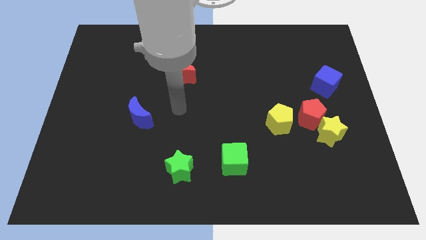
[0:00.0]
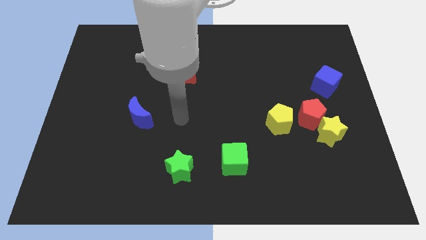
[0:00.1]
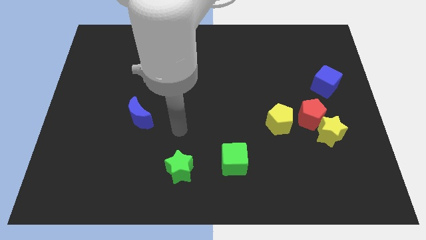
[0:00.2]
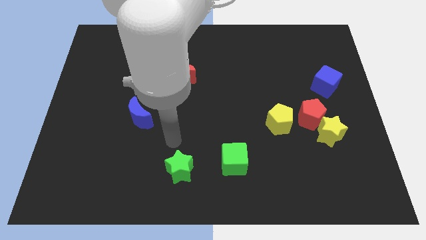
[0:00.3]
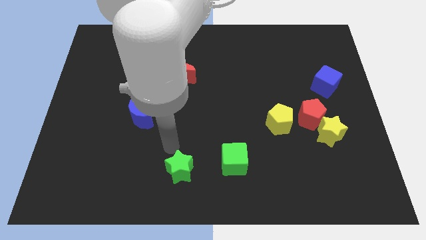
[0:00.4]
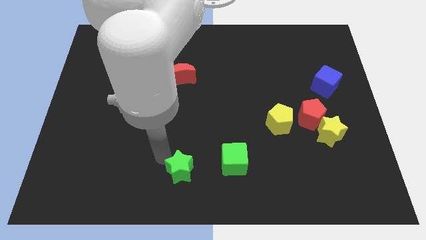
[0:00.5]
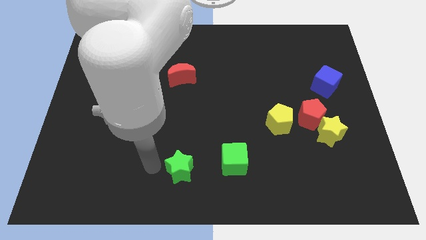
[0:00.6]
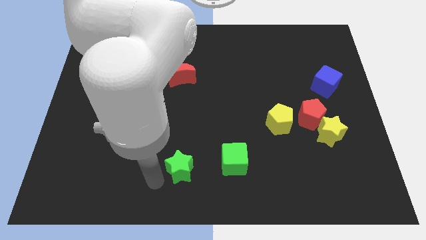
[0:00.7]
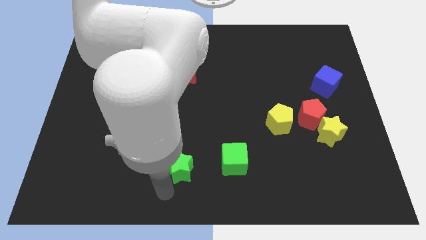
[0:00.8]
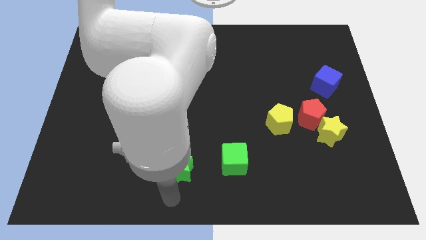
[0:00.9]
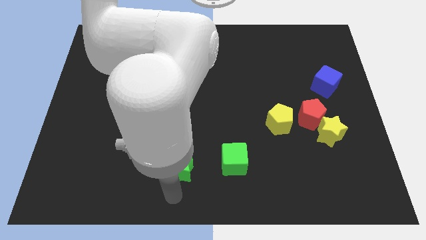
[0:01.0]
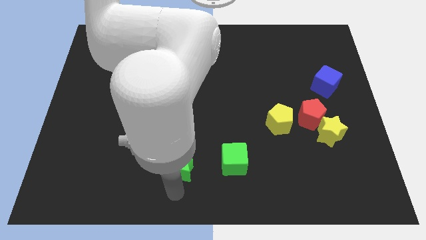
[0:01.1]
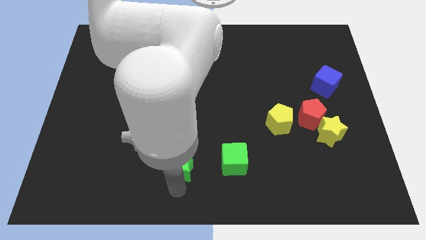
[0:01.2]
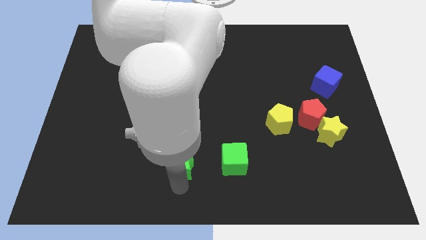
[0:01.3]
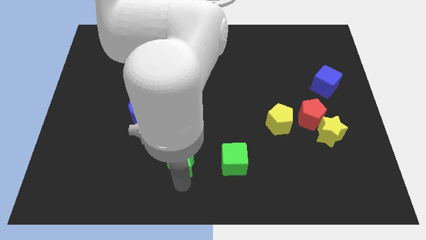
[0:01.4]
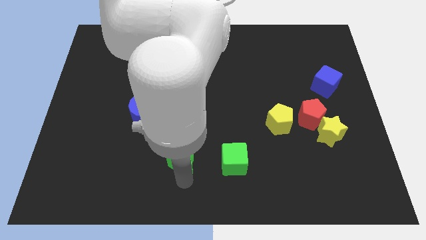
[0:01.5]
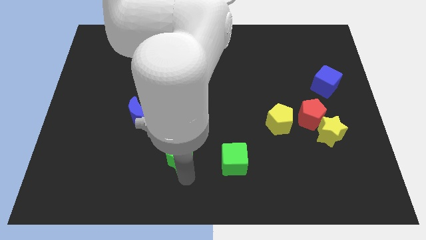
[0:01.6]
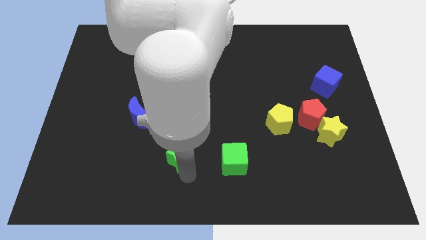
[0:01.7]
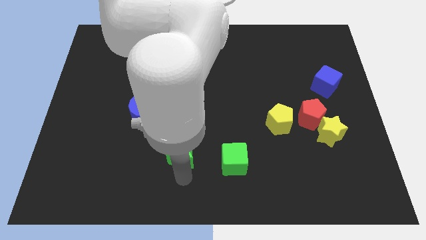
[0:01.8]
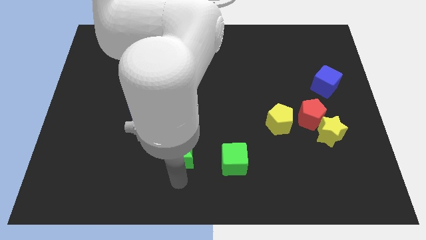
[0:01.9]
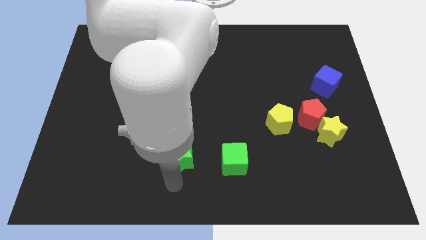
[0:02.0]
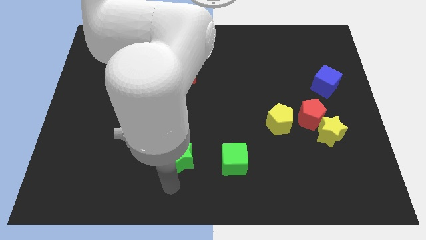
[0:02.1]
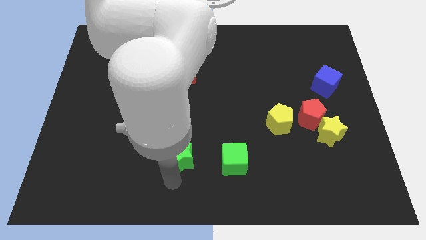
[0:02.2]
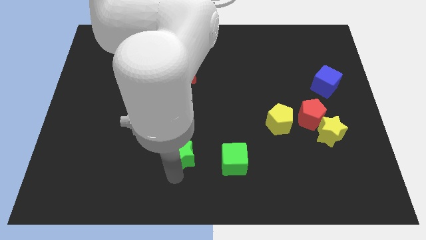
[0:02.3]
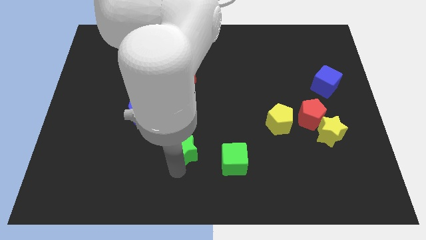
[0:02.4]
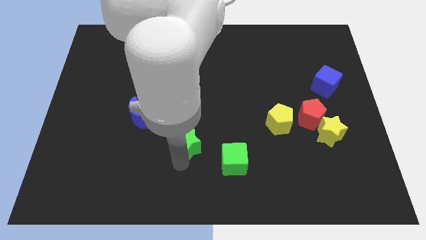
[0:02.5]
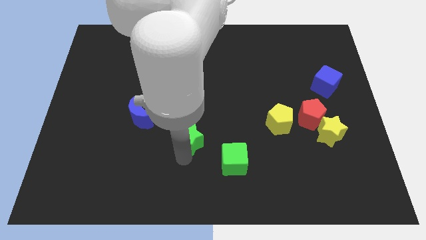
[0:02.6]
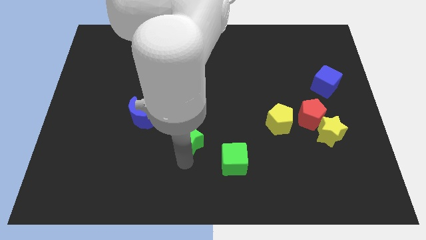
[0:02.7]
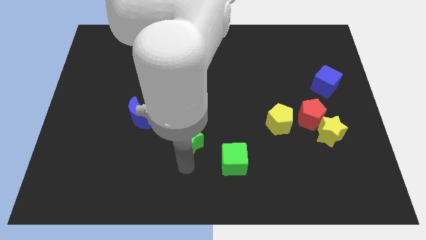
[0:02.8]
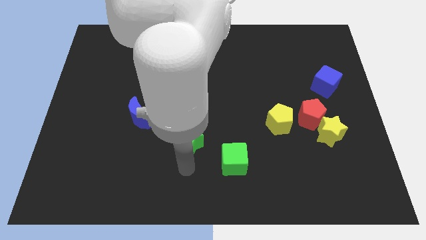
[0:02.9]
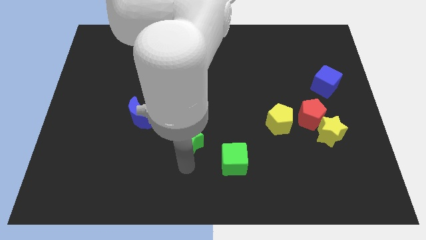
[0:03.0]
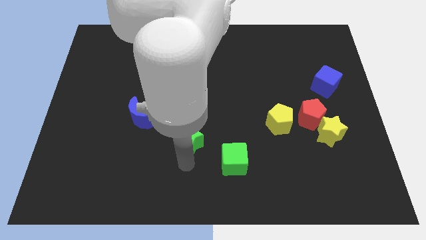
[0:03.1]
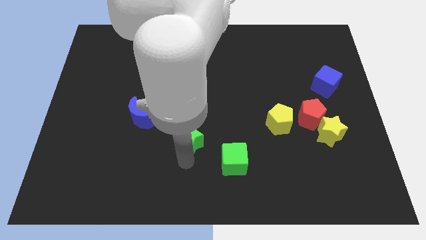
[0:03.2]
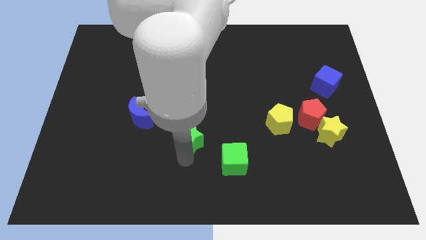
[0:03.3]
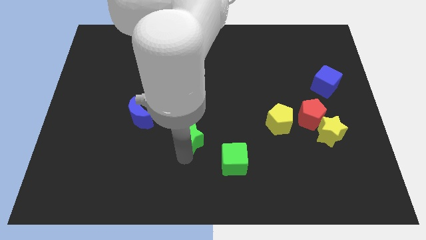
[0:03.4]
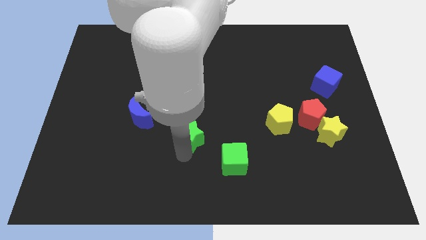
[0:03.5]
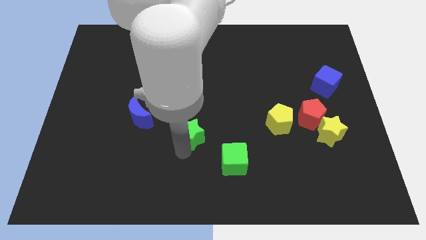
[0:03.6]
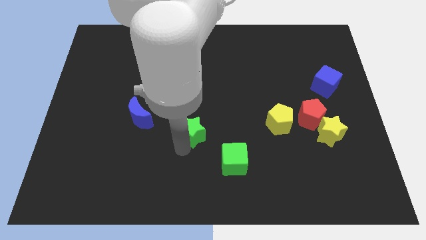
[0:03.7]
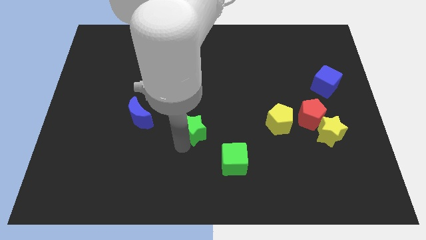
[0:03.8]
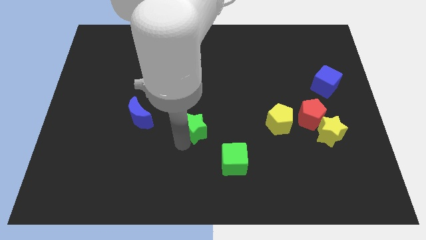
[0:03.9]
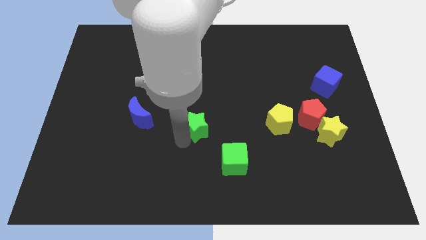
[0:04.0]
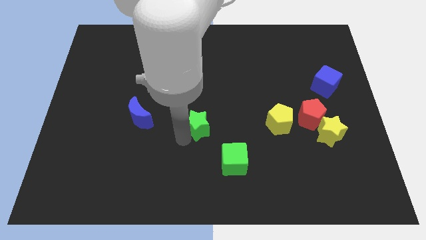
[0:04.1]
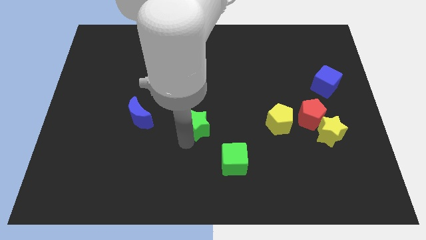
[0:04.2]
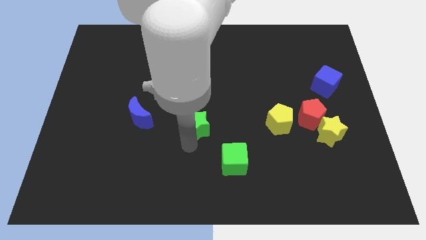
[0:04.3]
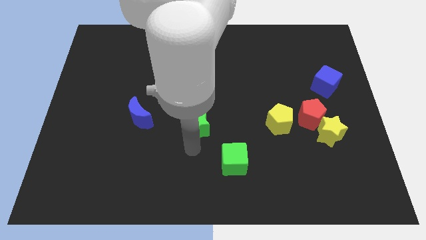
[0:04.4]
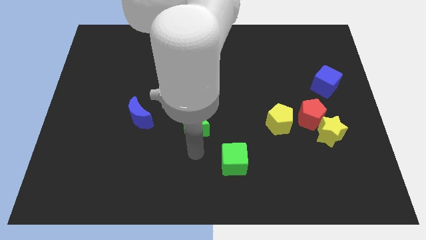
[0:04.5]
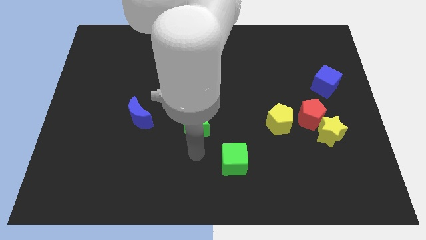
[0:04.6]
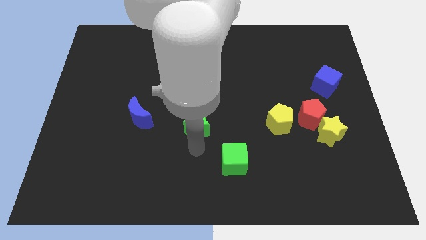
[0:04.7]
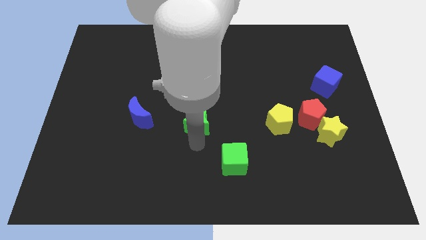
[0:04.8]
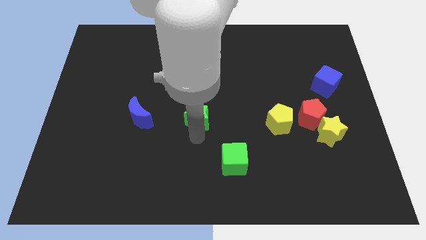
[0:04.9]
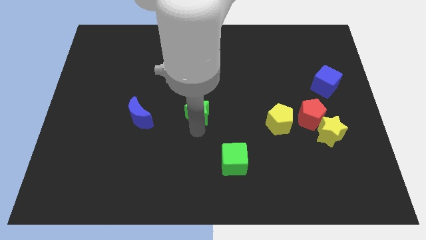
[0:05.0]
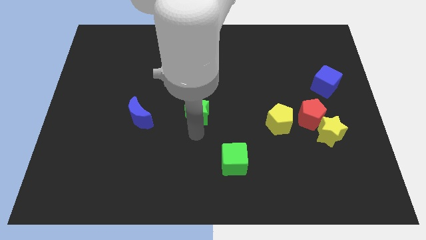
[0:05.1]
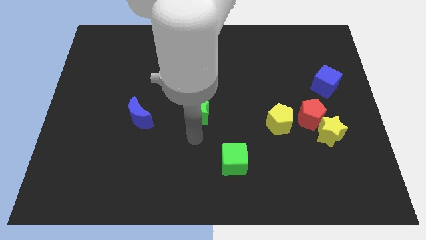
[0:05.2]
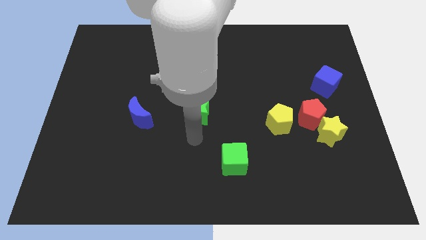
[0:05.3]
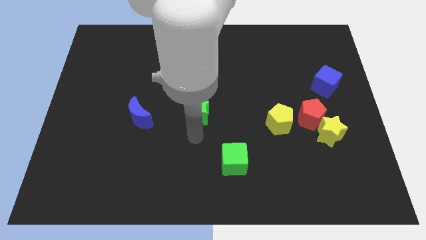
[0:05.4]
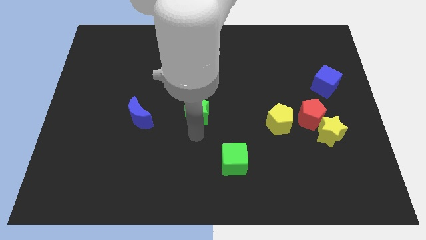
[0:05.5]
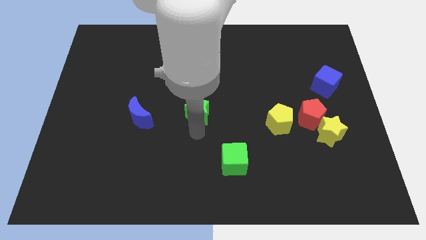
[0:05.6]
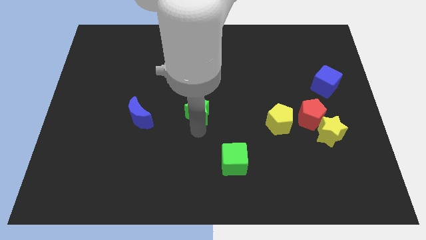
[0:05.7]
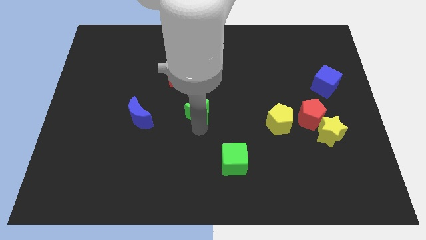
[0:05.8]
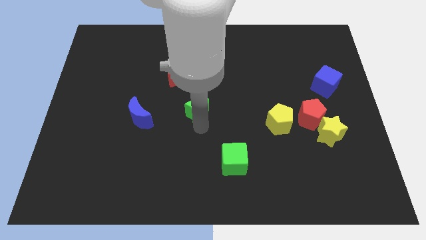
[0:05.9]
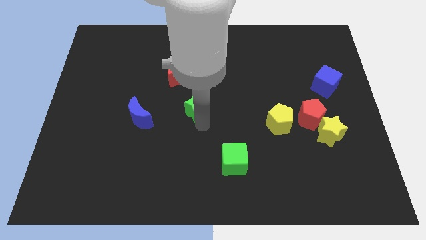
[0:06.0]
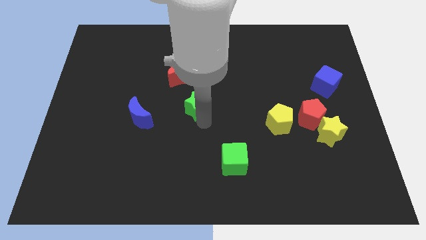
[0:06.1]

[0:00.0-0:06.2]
slide the green star diagonally down and to the right of the red moon

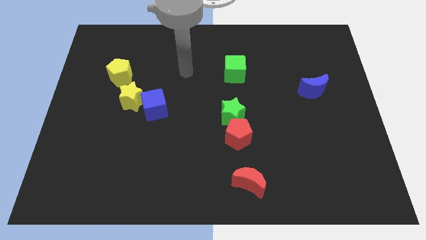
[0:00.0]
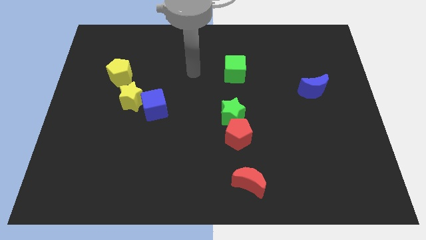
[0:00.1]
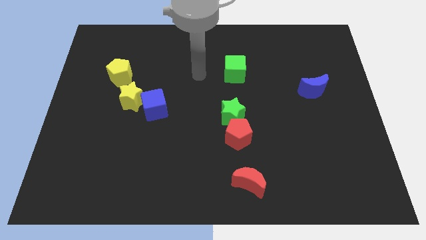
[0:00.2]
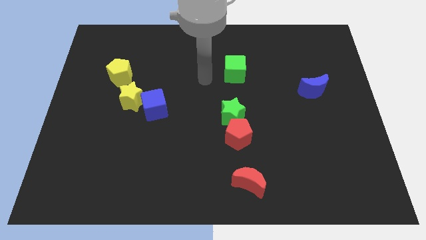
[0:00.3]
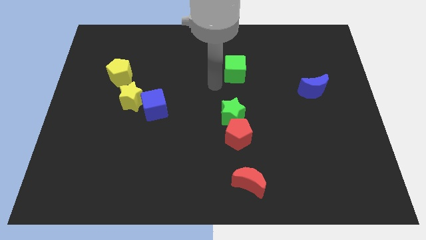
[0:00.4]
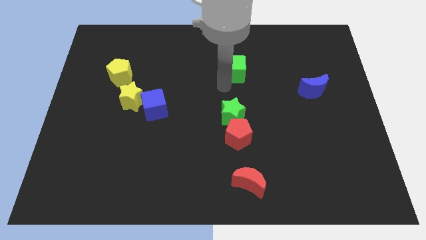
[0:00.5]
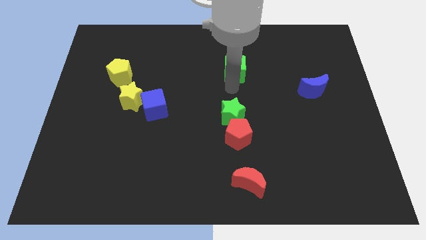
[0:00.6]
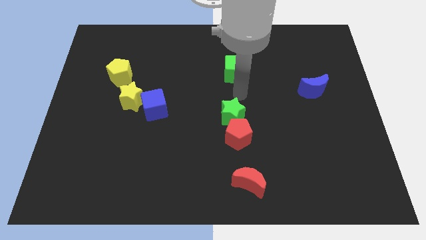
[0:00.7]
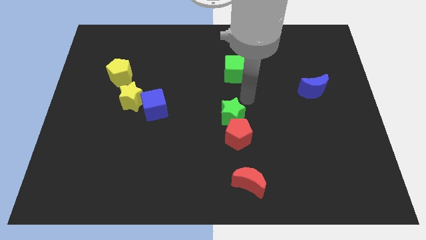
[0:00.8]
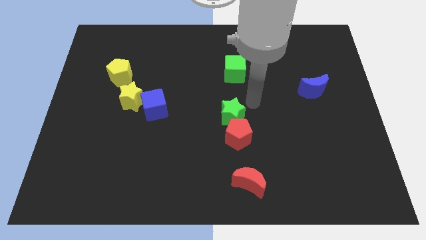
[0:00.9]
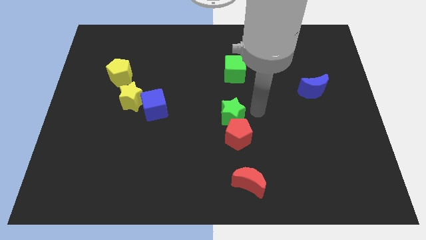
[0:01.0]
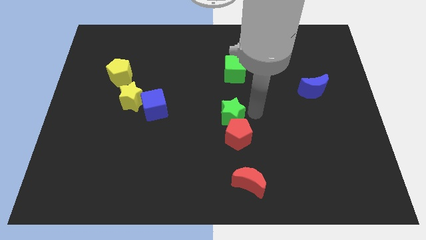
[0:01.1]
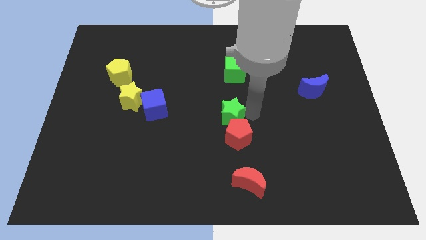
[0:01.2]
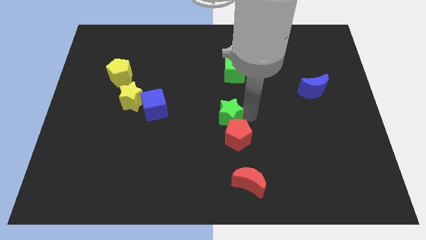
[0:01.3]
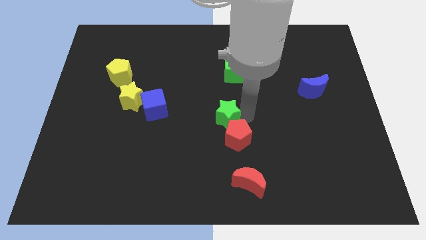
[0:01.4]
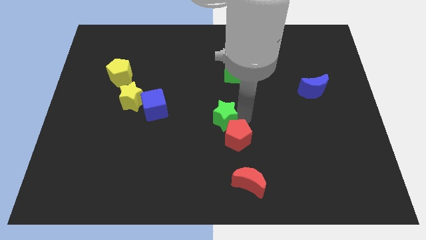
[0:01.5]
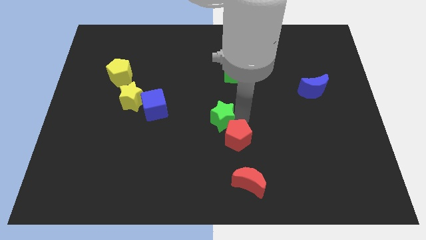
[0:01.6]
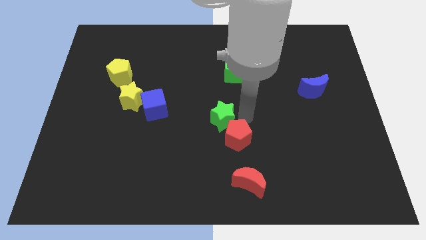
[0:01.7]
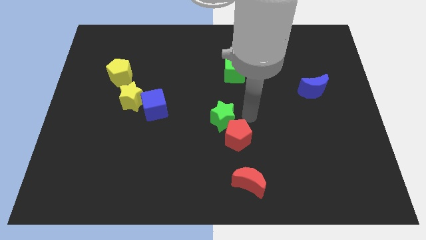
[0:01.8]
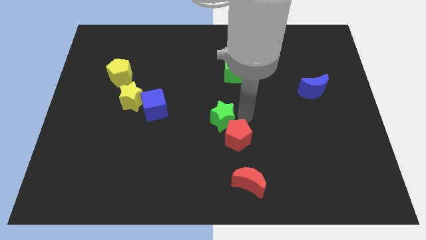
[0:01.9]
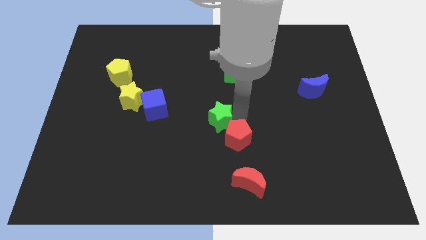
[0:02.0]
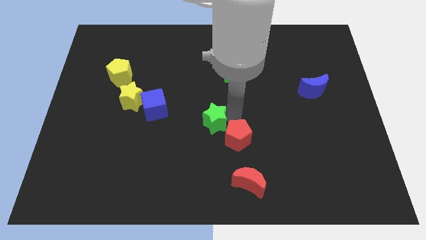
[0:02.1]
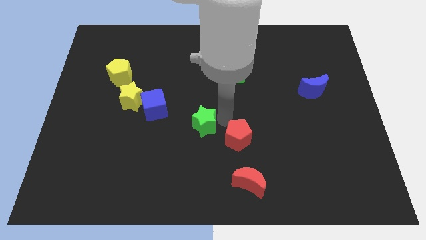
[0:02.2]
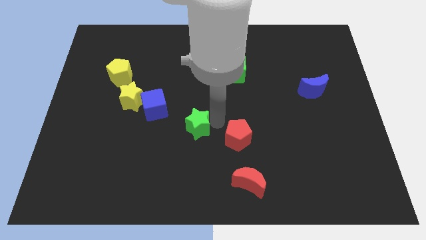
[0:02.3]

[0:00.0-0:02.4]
put the green star to the bottom right of the blue cube
